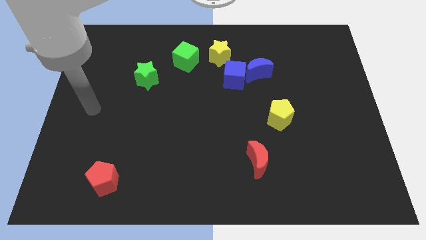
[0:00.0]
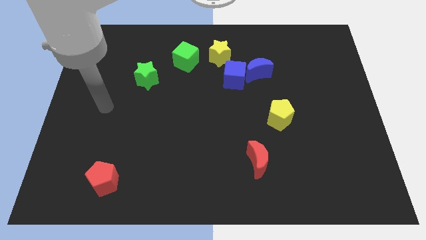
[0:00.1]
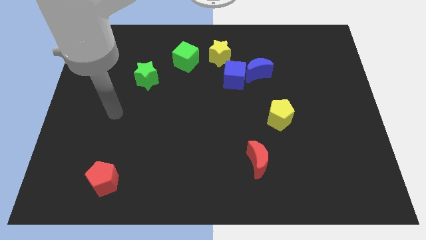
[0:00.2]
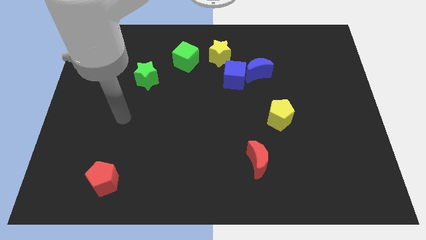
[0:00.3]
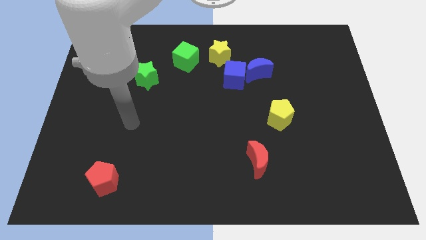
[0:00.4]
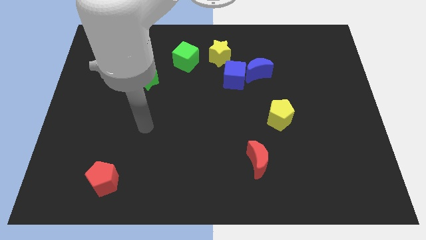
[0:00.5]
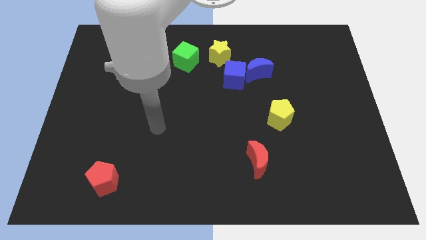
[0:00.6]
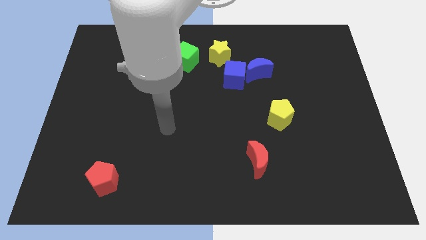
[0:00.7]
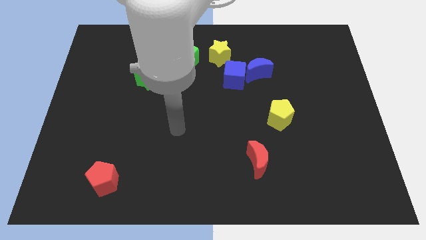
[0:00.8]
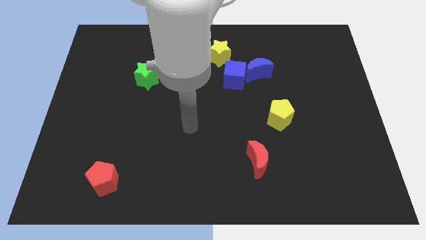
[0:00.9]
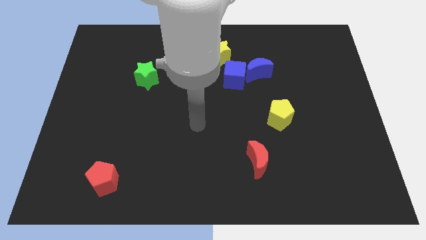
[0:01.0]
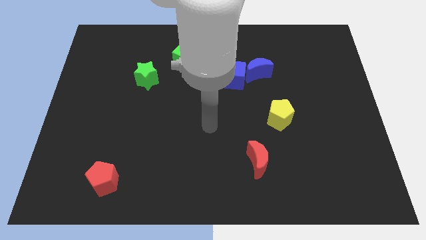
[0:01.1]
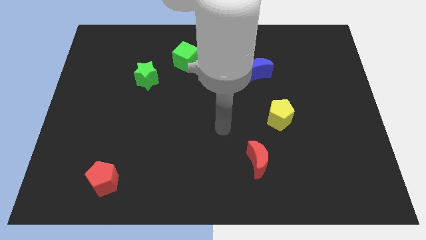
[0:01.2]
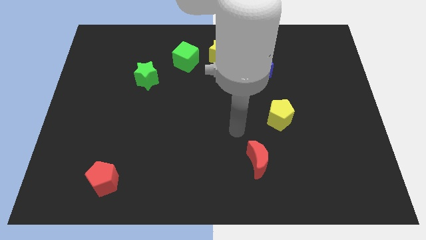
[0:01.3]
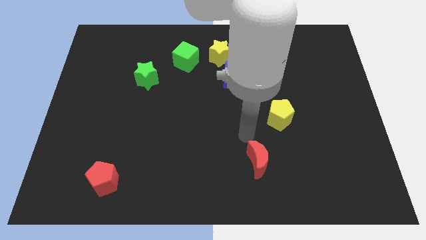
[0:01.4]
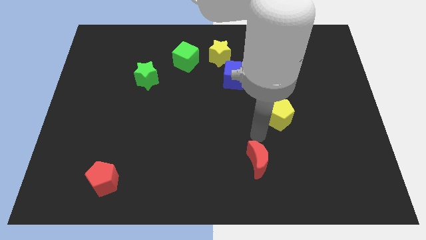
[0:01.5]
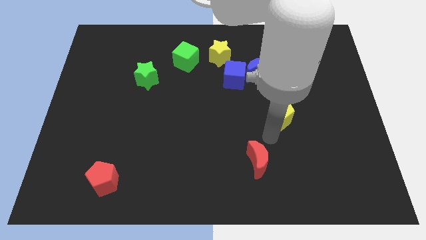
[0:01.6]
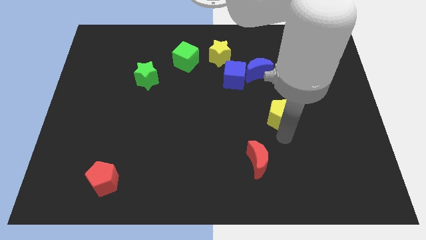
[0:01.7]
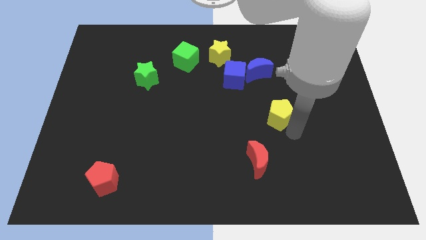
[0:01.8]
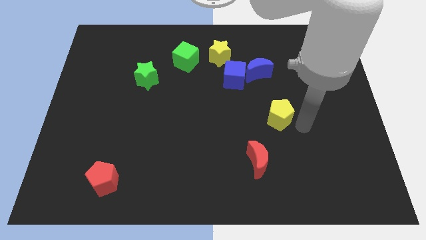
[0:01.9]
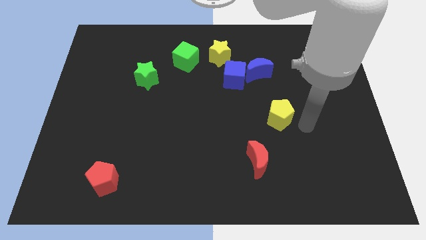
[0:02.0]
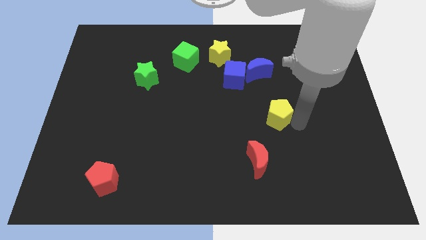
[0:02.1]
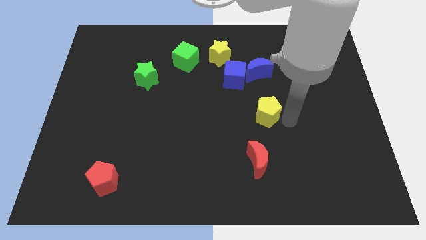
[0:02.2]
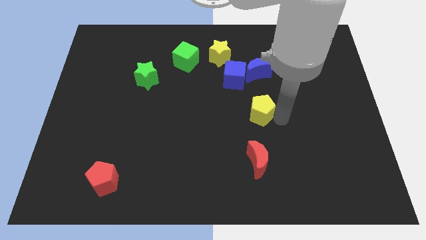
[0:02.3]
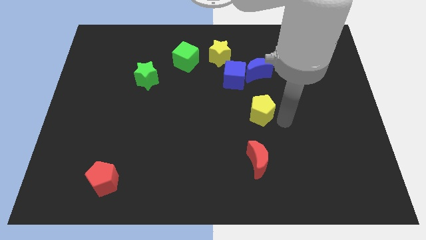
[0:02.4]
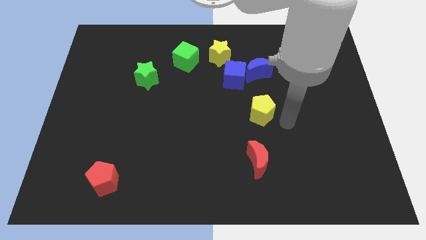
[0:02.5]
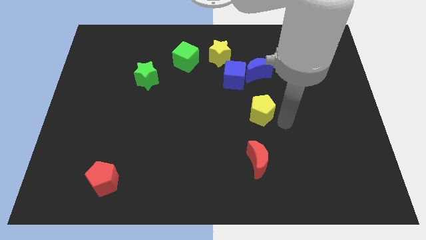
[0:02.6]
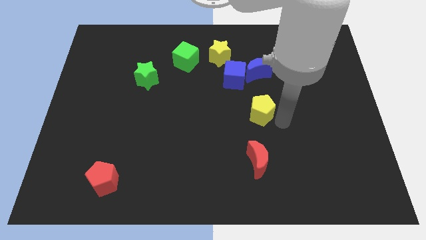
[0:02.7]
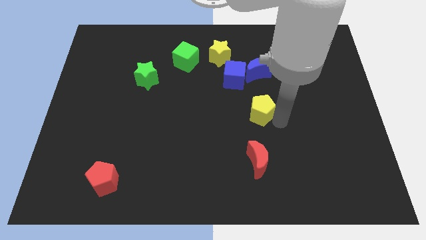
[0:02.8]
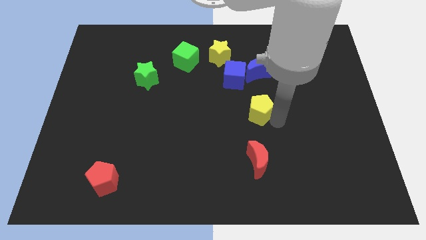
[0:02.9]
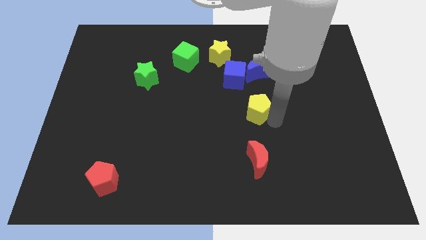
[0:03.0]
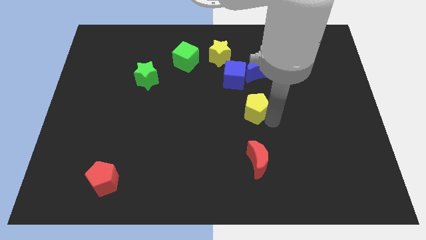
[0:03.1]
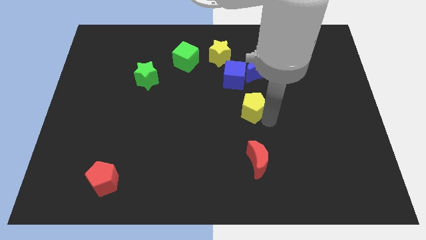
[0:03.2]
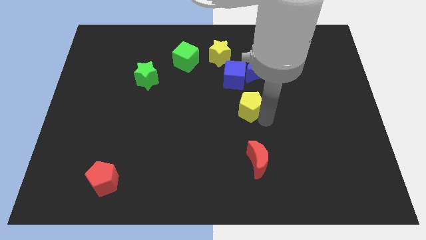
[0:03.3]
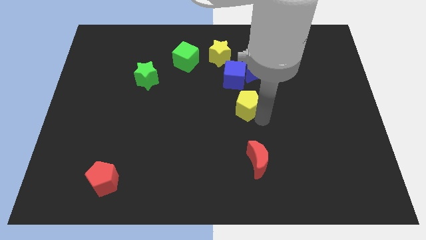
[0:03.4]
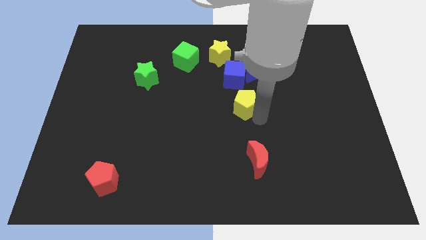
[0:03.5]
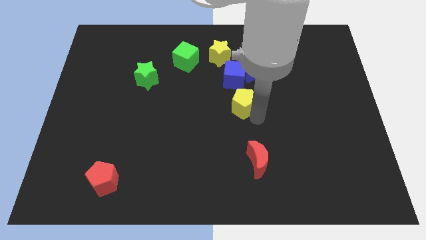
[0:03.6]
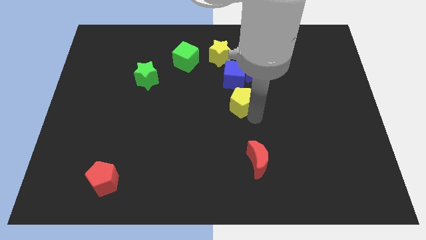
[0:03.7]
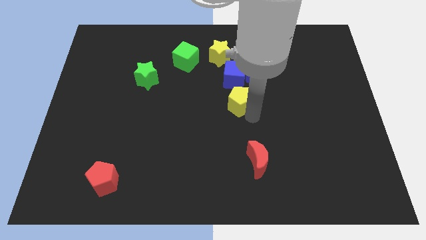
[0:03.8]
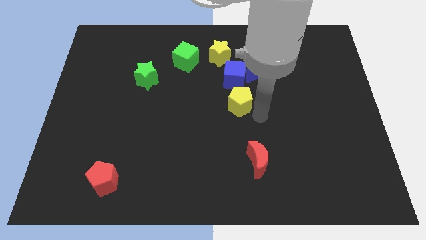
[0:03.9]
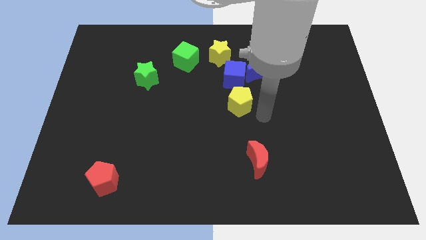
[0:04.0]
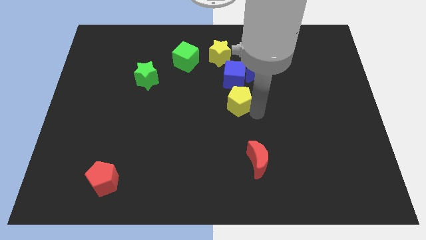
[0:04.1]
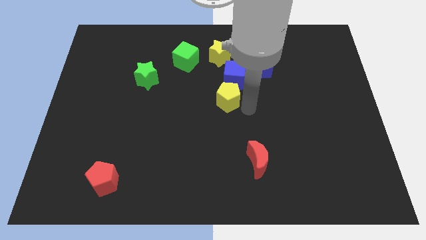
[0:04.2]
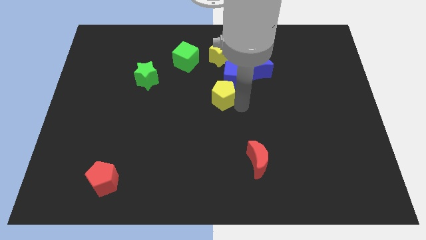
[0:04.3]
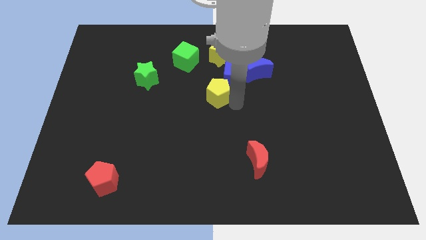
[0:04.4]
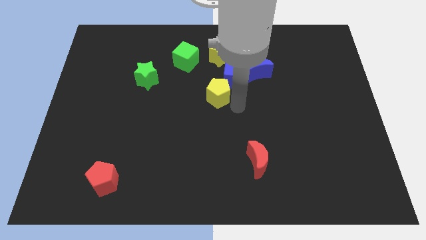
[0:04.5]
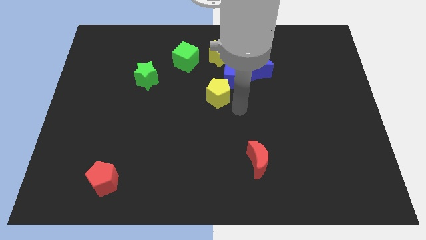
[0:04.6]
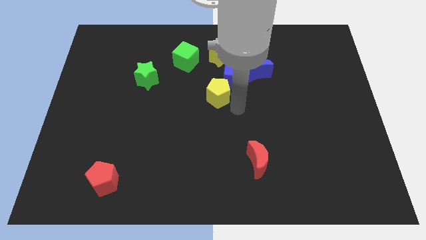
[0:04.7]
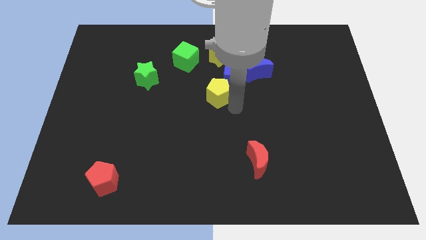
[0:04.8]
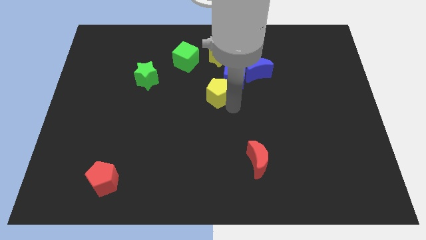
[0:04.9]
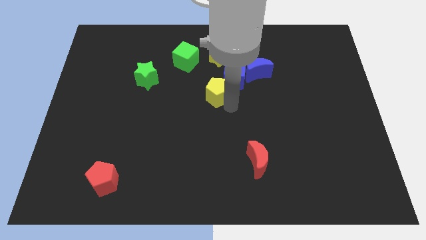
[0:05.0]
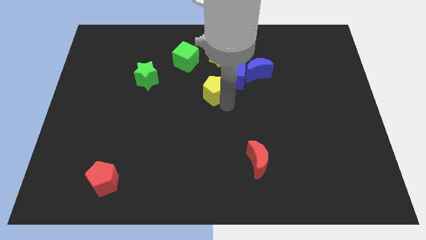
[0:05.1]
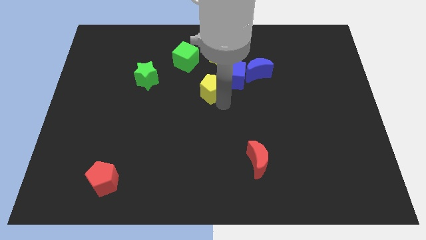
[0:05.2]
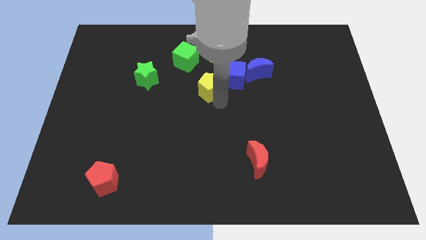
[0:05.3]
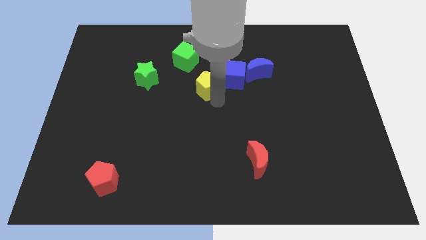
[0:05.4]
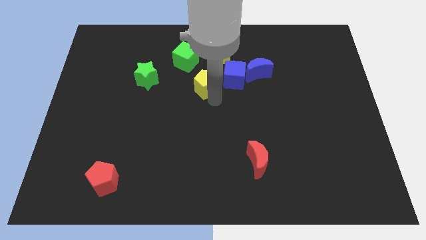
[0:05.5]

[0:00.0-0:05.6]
put the yellow pentagon right of the green star

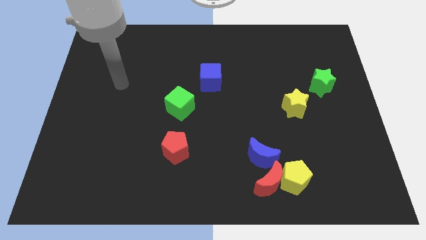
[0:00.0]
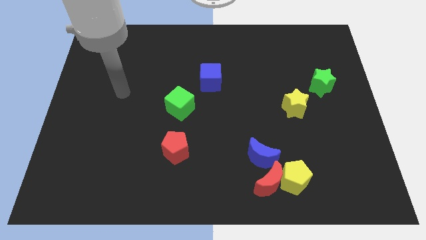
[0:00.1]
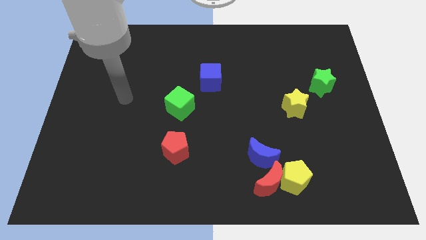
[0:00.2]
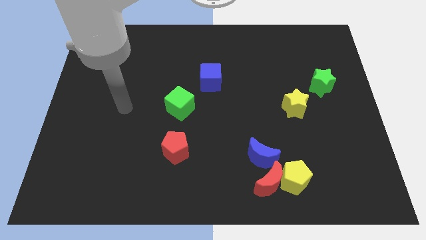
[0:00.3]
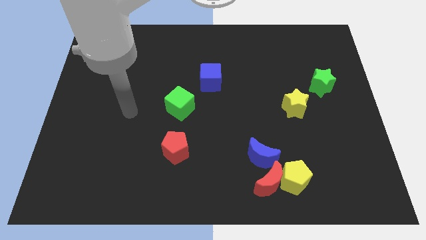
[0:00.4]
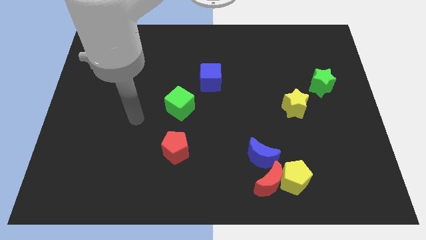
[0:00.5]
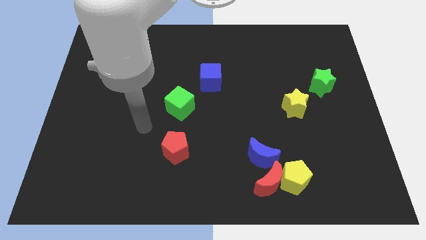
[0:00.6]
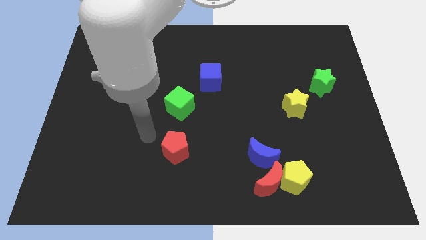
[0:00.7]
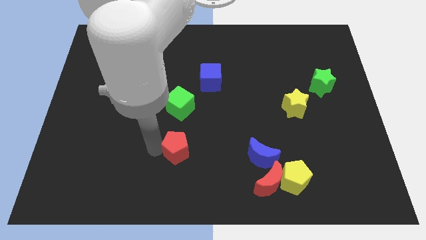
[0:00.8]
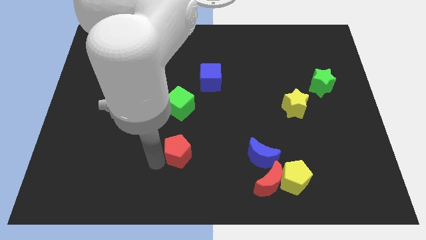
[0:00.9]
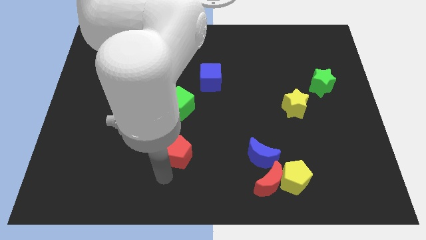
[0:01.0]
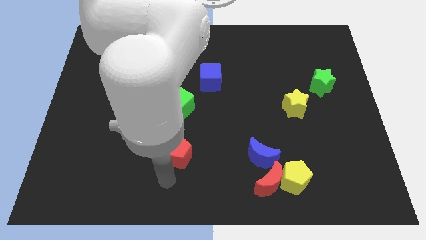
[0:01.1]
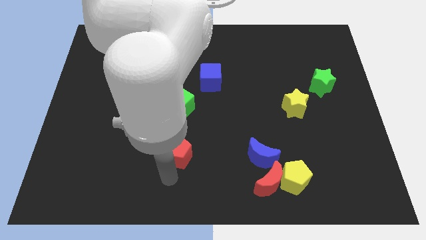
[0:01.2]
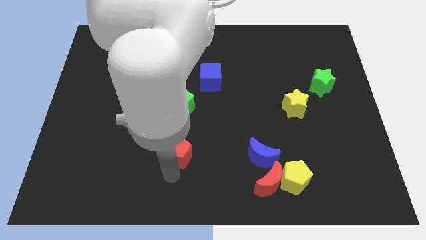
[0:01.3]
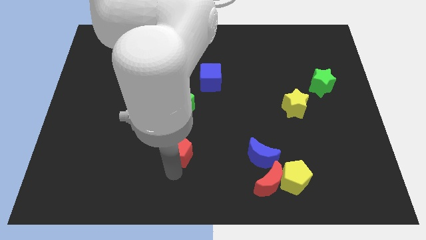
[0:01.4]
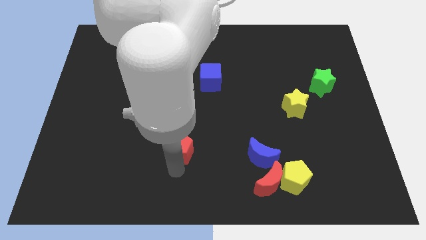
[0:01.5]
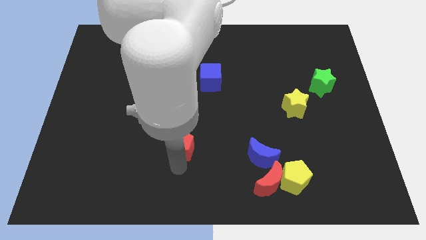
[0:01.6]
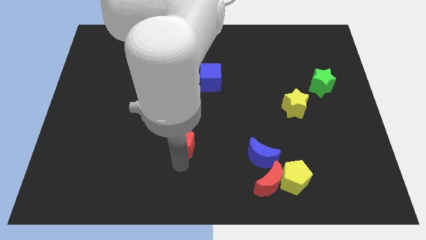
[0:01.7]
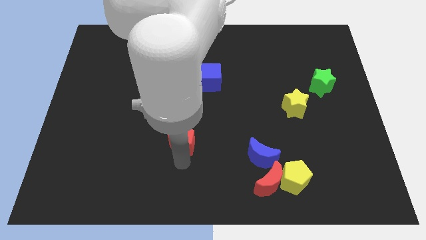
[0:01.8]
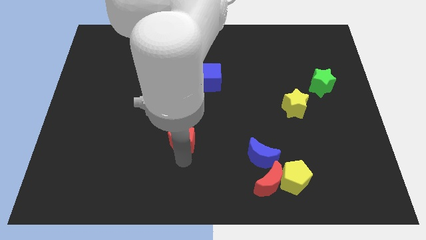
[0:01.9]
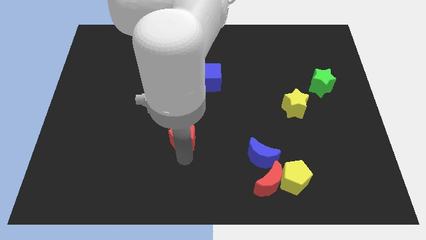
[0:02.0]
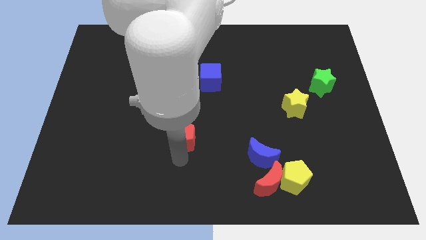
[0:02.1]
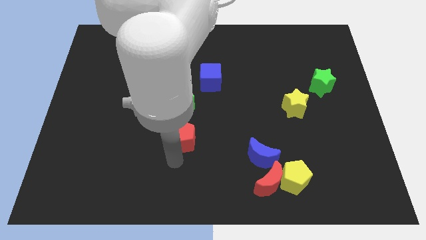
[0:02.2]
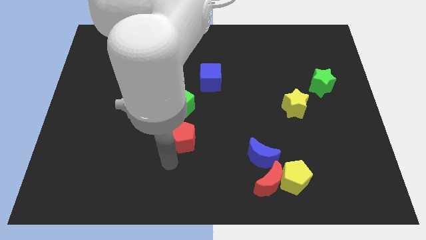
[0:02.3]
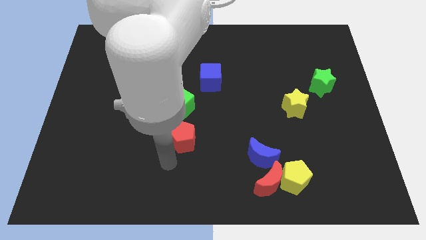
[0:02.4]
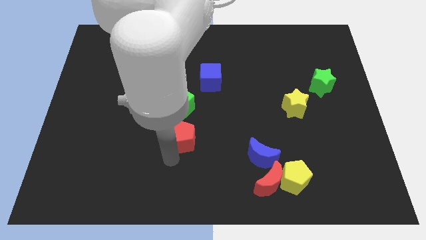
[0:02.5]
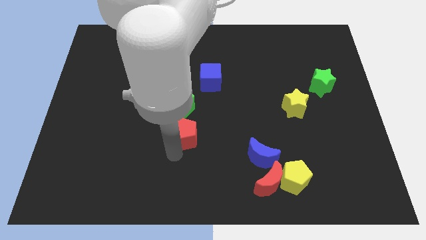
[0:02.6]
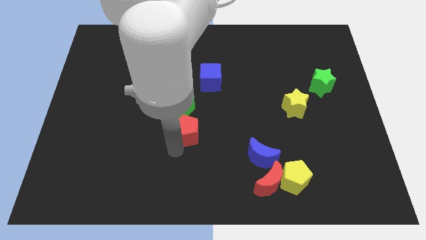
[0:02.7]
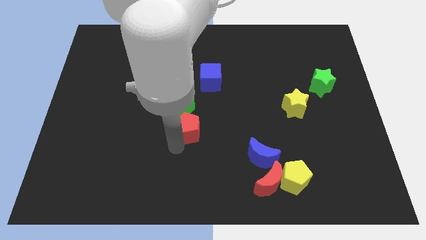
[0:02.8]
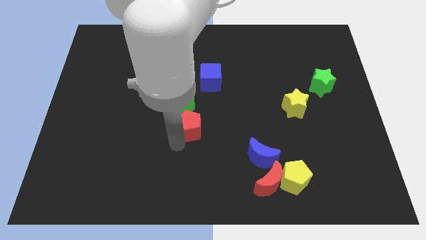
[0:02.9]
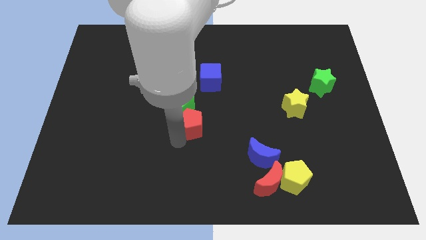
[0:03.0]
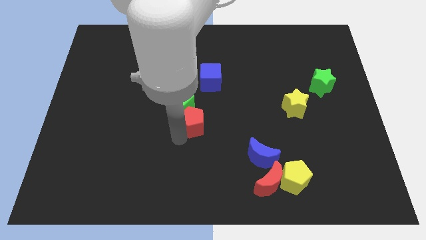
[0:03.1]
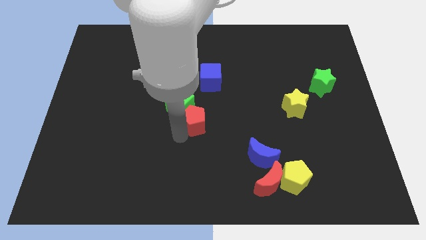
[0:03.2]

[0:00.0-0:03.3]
push the red pentagon just right of the green cube
